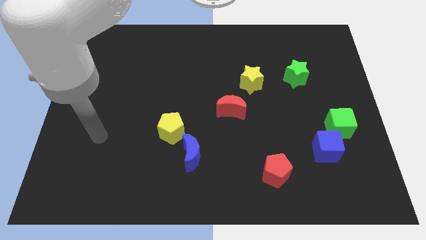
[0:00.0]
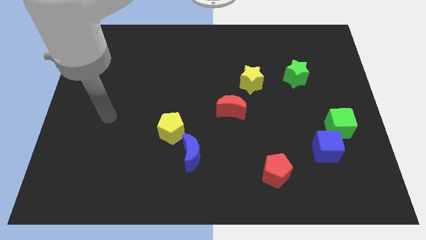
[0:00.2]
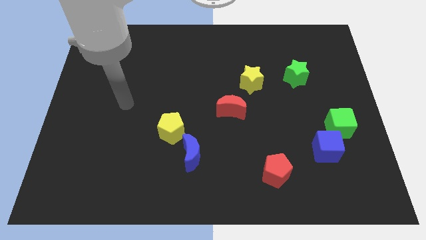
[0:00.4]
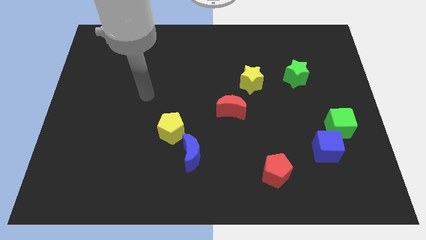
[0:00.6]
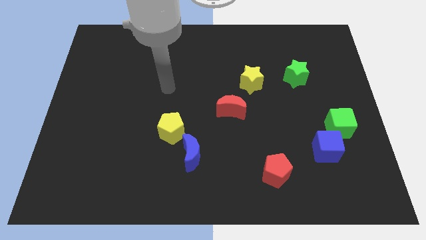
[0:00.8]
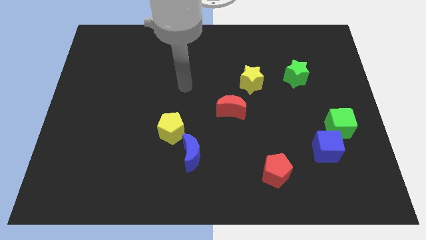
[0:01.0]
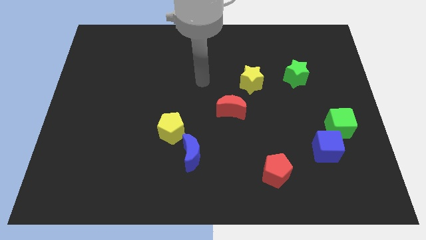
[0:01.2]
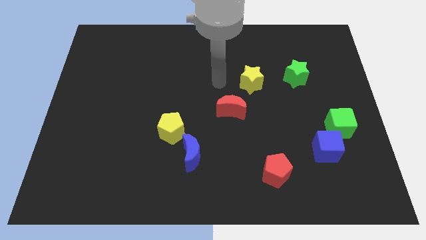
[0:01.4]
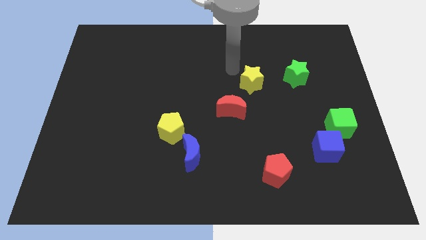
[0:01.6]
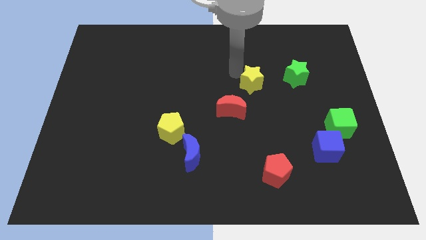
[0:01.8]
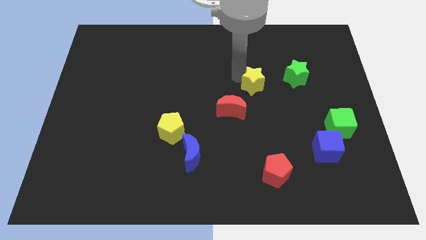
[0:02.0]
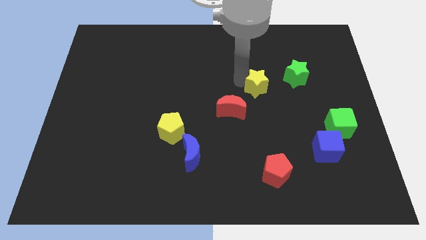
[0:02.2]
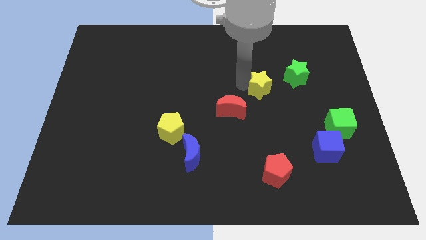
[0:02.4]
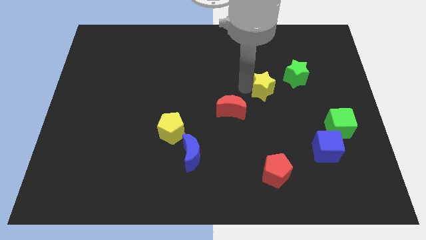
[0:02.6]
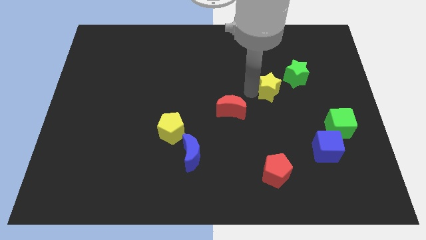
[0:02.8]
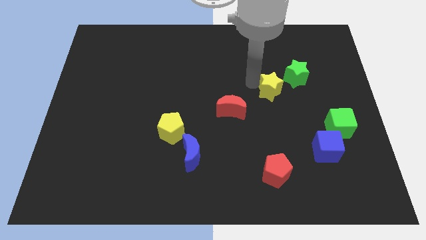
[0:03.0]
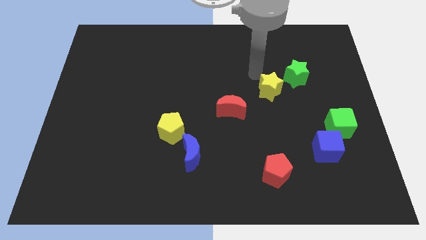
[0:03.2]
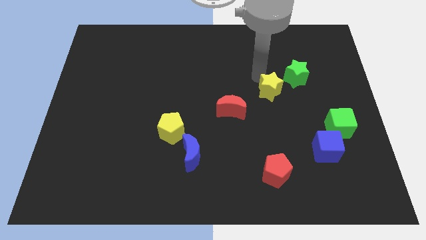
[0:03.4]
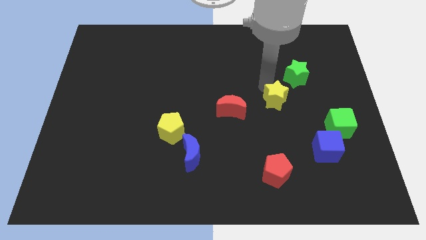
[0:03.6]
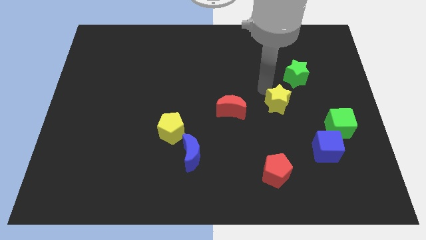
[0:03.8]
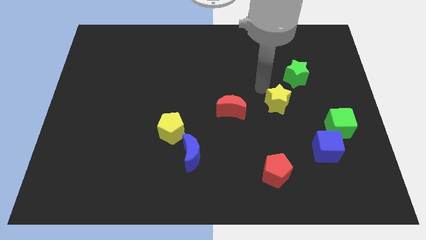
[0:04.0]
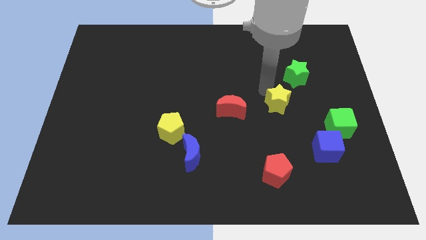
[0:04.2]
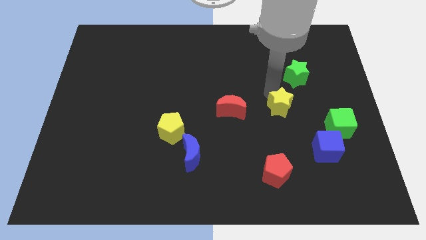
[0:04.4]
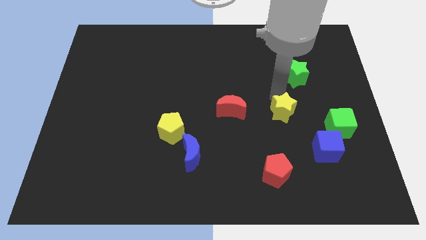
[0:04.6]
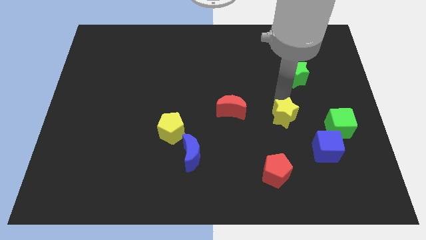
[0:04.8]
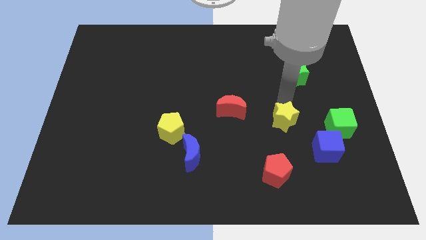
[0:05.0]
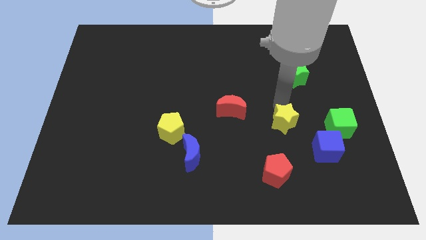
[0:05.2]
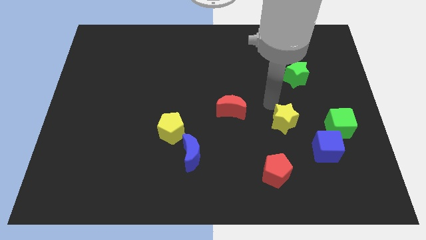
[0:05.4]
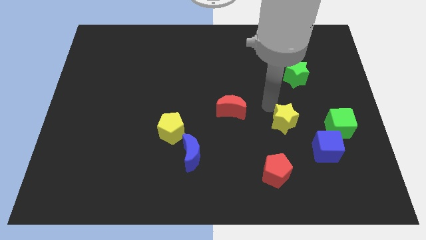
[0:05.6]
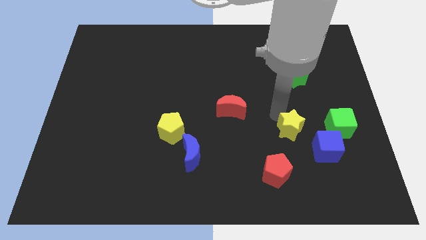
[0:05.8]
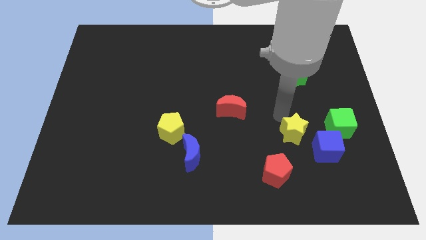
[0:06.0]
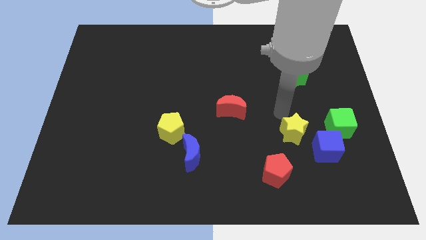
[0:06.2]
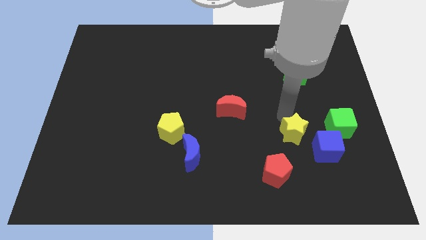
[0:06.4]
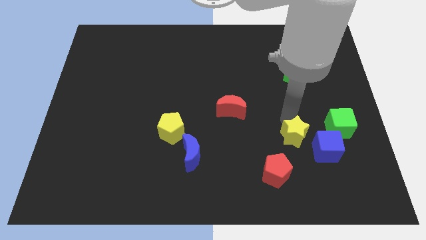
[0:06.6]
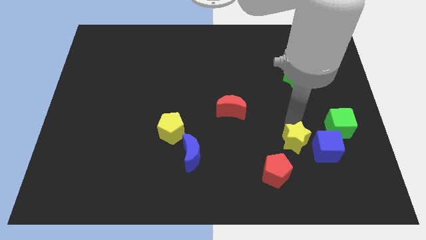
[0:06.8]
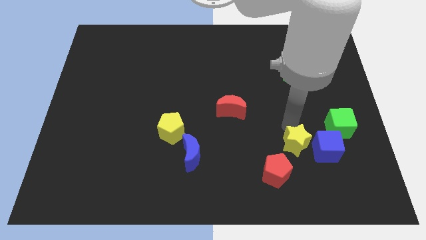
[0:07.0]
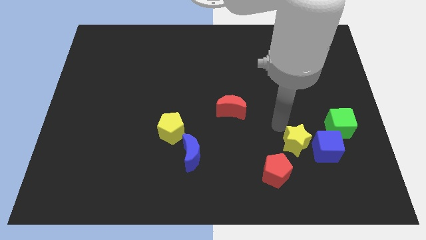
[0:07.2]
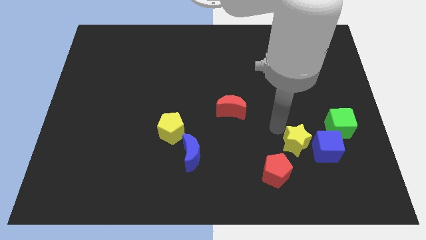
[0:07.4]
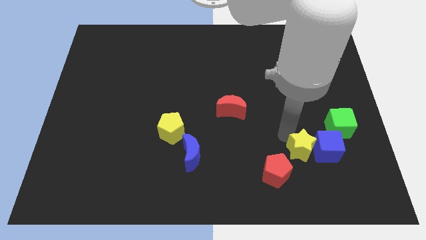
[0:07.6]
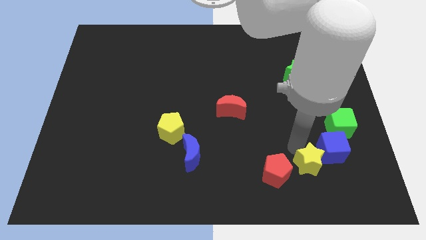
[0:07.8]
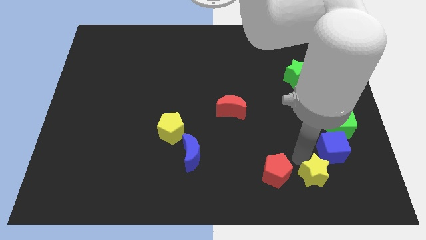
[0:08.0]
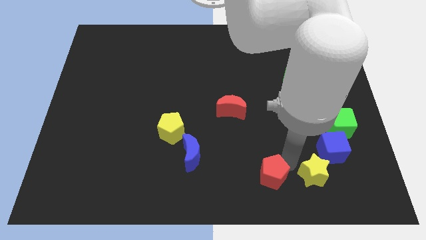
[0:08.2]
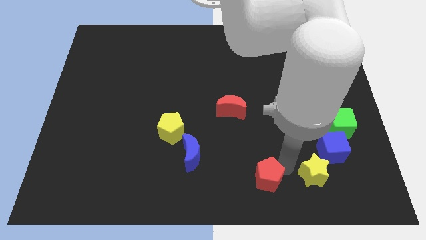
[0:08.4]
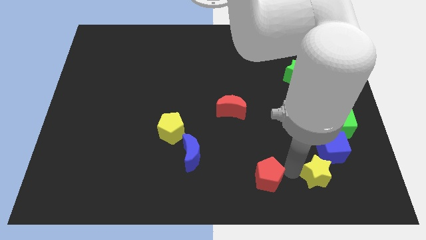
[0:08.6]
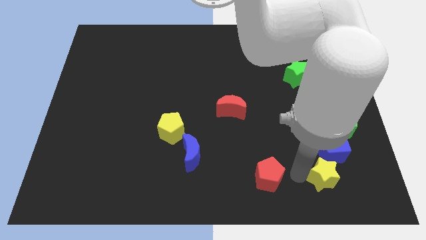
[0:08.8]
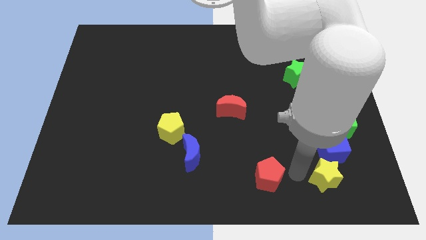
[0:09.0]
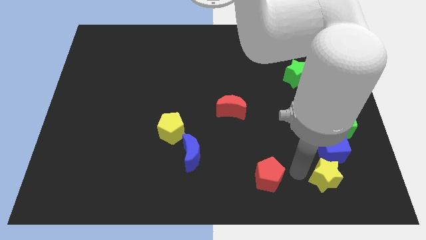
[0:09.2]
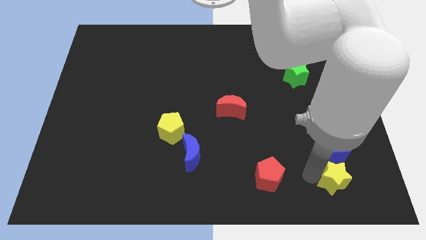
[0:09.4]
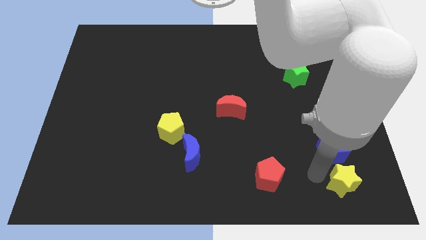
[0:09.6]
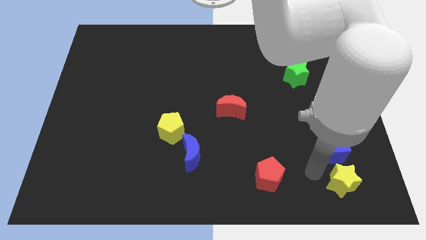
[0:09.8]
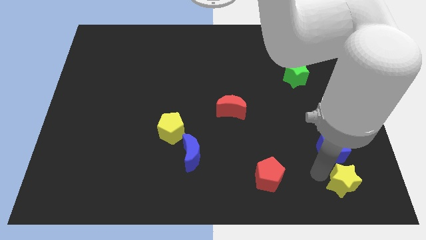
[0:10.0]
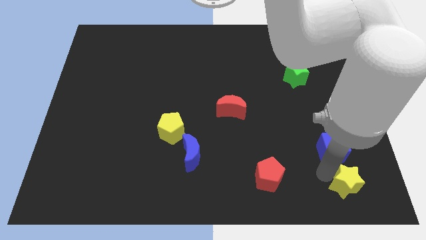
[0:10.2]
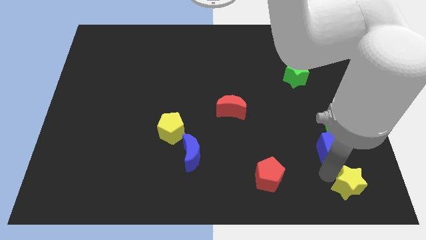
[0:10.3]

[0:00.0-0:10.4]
move the yellow star to the lower right corner
